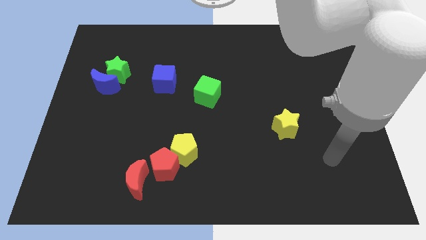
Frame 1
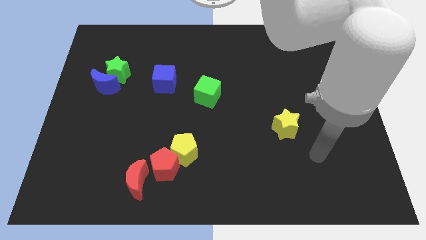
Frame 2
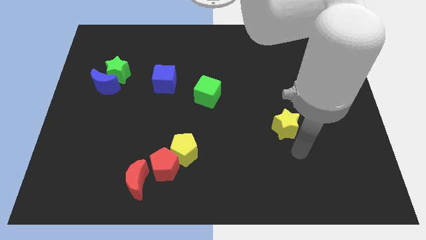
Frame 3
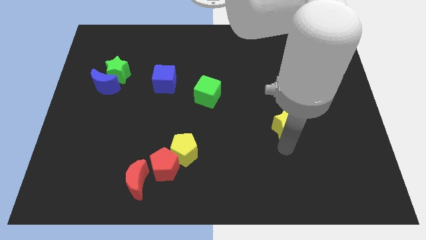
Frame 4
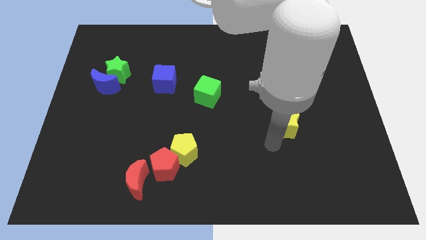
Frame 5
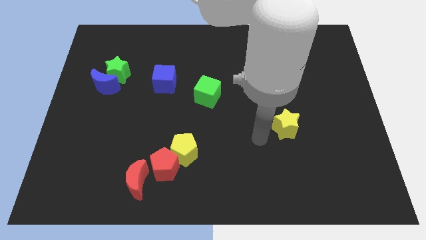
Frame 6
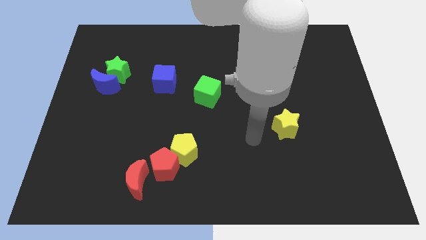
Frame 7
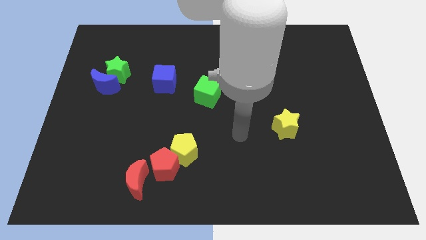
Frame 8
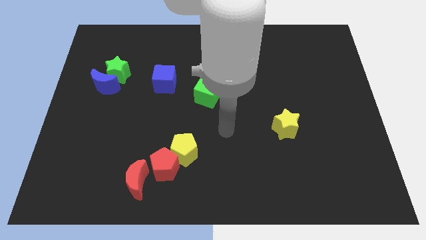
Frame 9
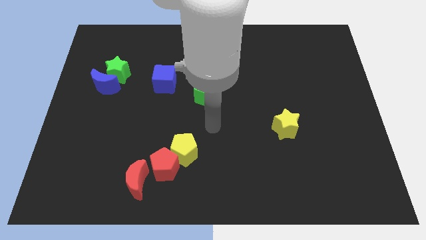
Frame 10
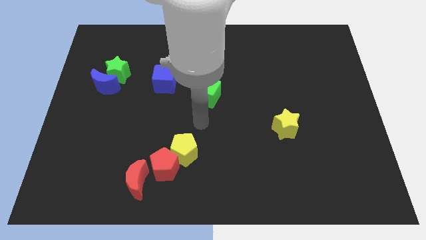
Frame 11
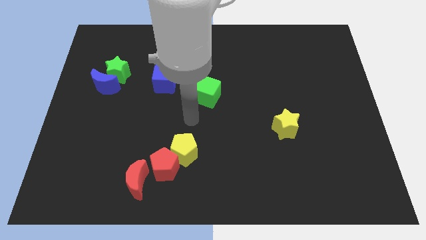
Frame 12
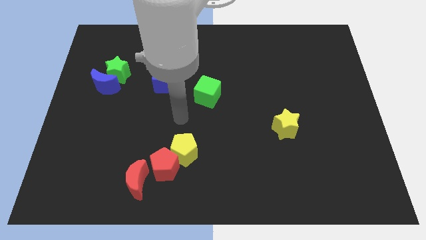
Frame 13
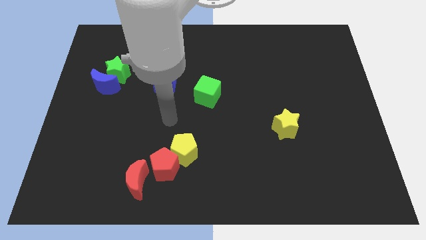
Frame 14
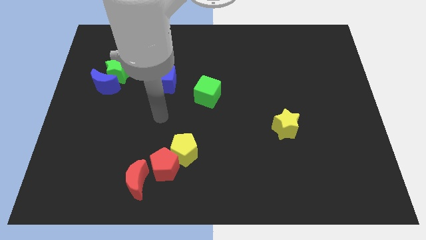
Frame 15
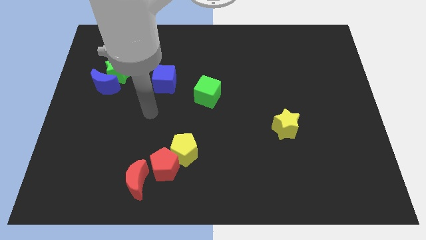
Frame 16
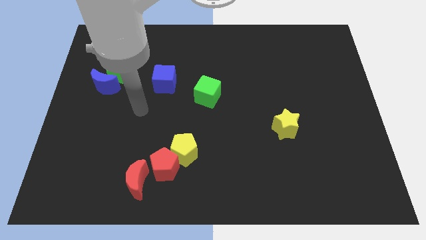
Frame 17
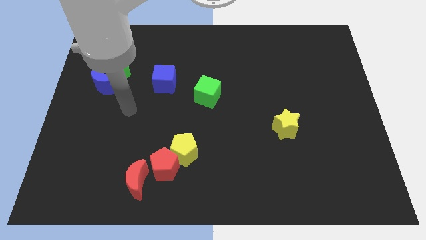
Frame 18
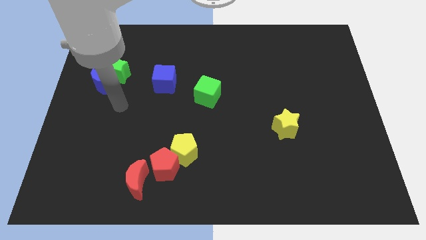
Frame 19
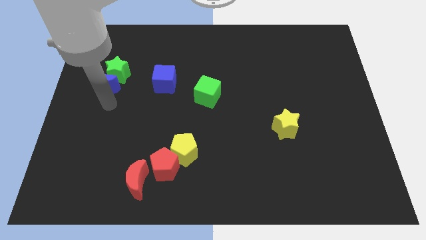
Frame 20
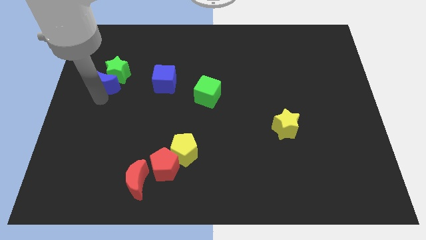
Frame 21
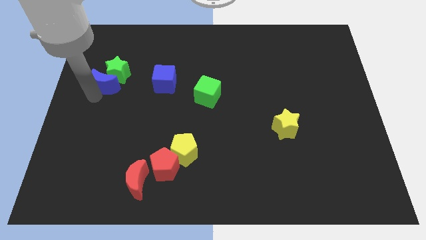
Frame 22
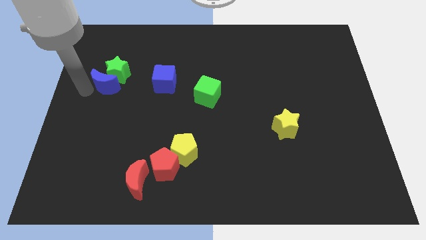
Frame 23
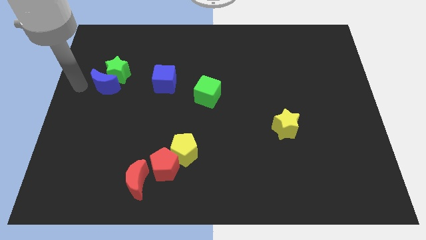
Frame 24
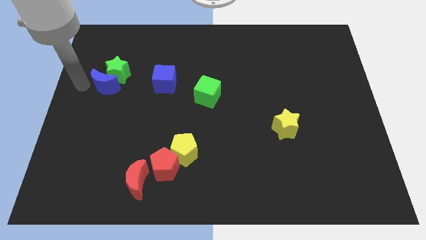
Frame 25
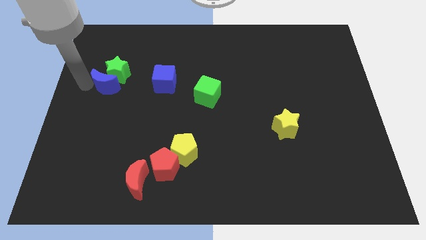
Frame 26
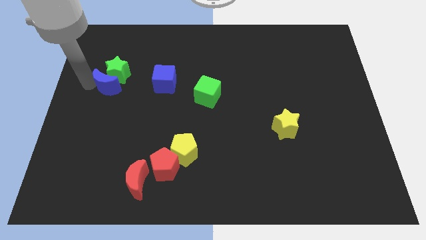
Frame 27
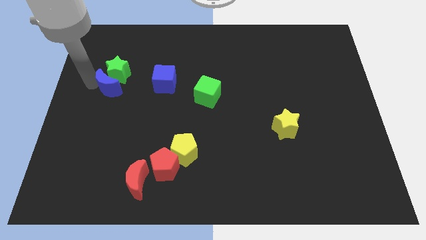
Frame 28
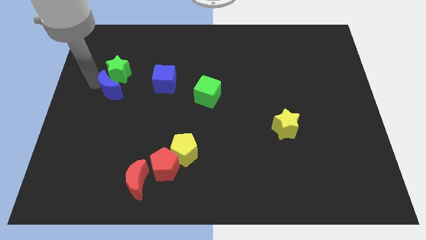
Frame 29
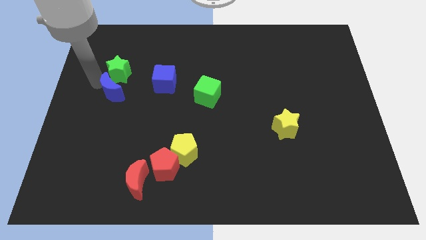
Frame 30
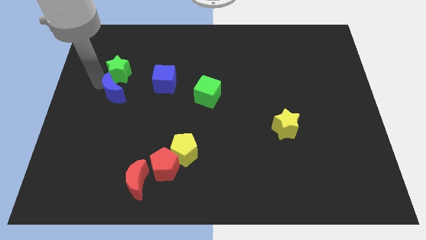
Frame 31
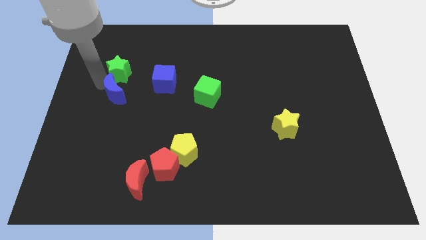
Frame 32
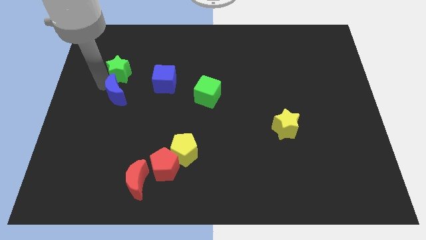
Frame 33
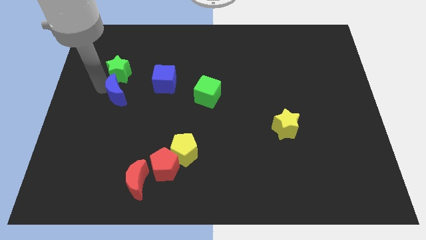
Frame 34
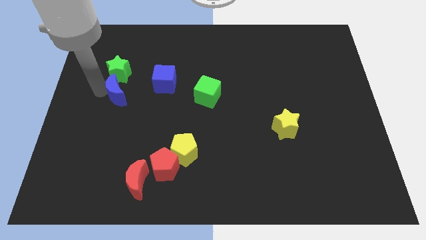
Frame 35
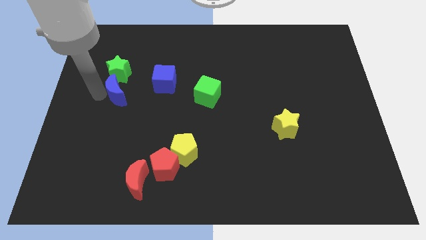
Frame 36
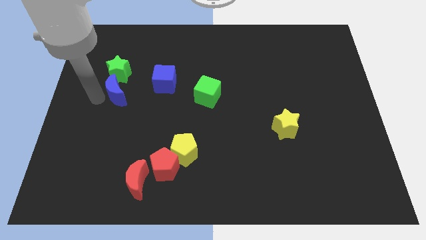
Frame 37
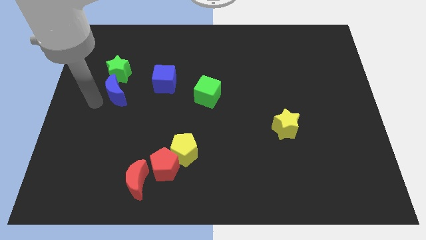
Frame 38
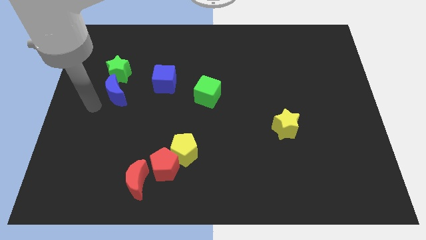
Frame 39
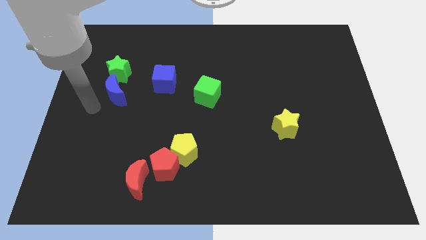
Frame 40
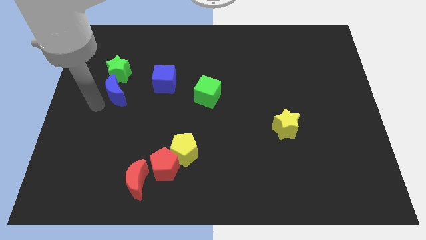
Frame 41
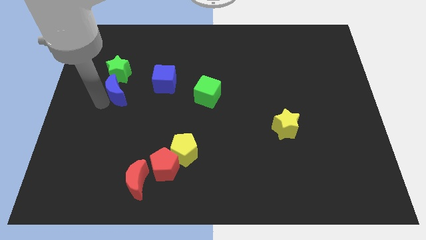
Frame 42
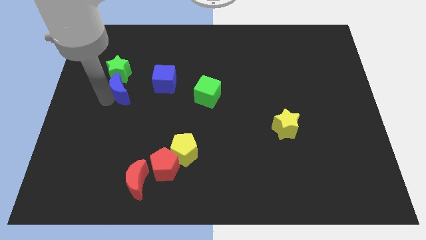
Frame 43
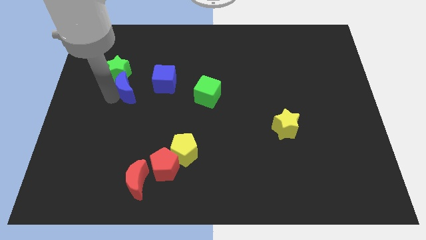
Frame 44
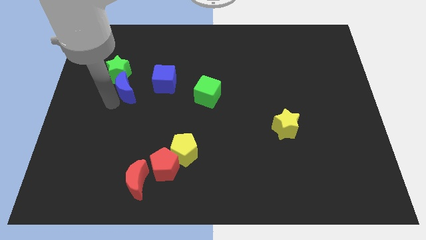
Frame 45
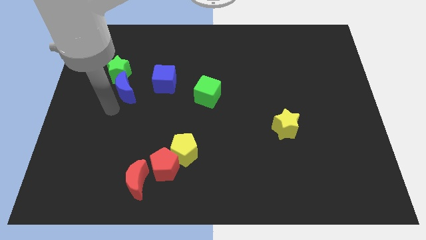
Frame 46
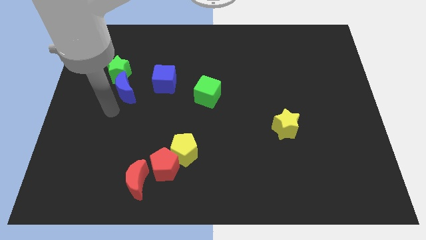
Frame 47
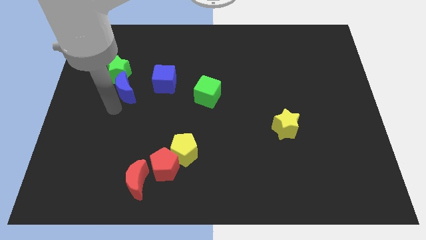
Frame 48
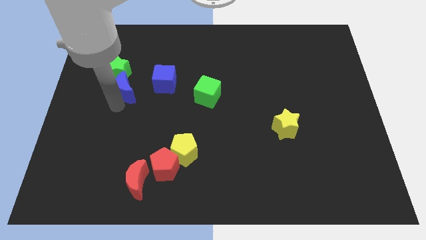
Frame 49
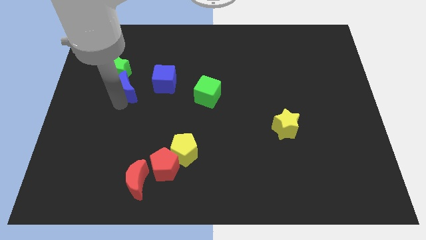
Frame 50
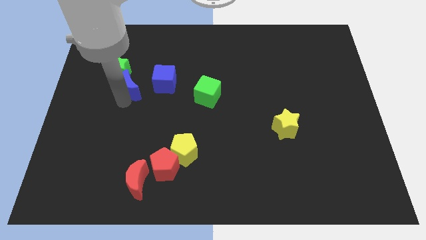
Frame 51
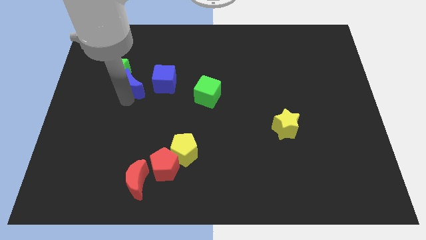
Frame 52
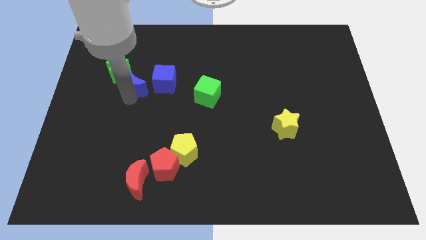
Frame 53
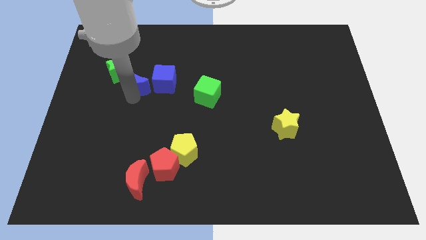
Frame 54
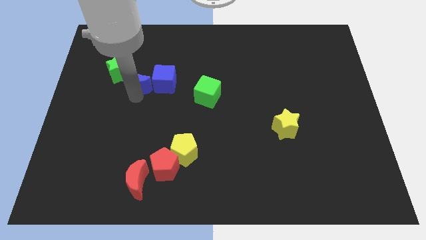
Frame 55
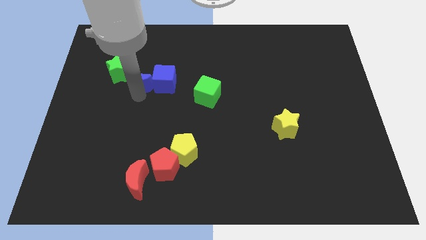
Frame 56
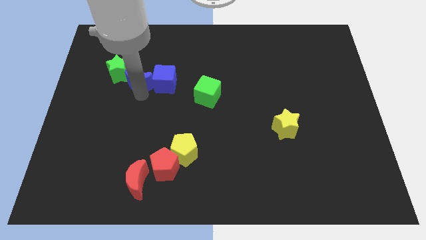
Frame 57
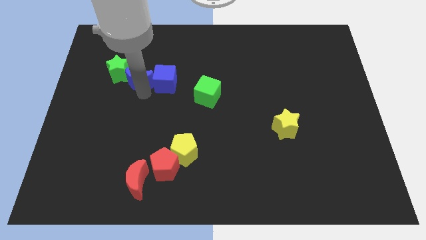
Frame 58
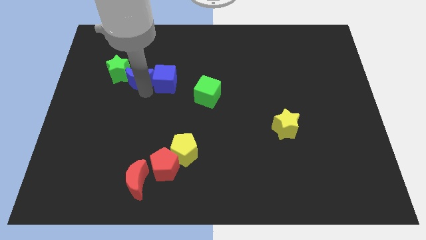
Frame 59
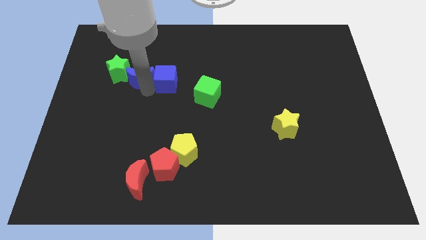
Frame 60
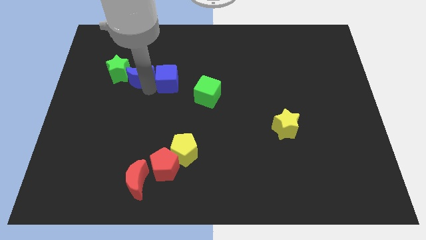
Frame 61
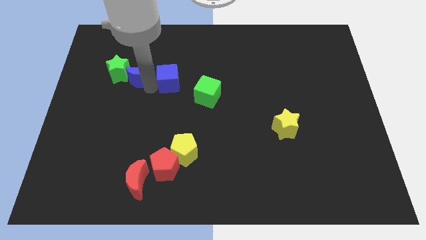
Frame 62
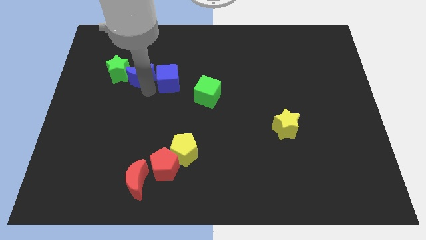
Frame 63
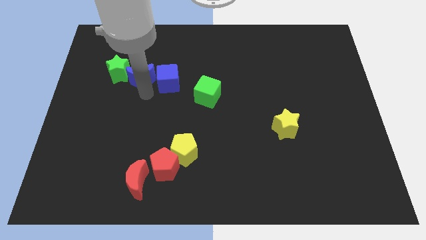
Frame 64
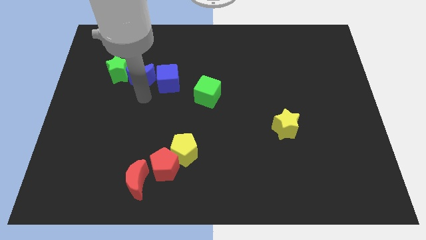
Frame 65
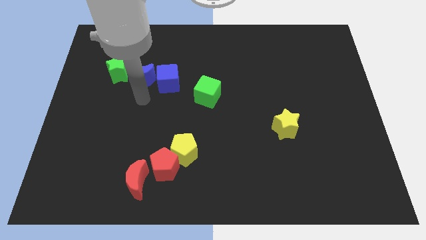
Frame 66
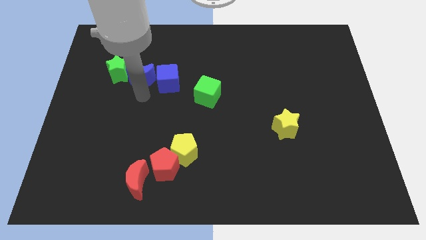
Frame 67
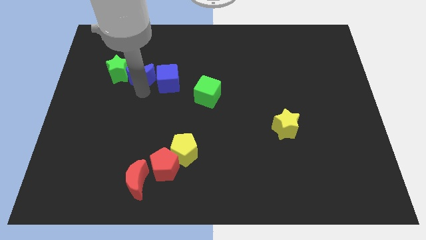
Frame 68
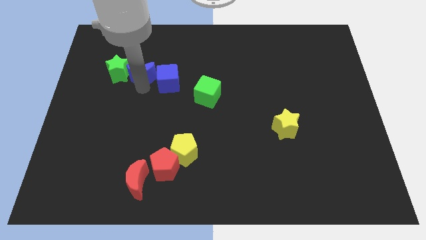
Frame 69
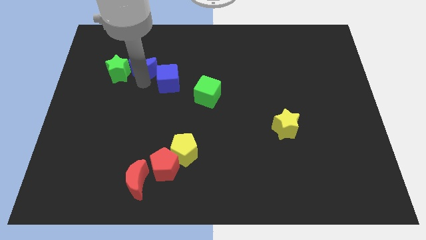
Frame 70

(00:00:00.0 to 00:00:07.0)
put the blue moon to the top right side of the green star
